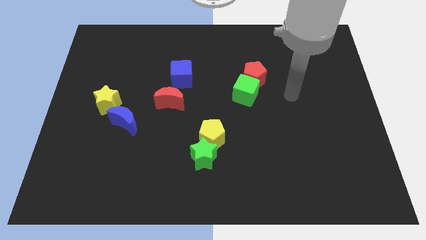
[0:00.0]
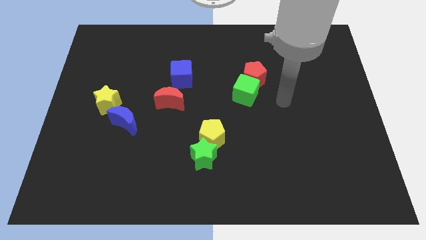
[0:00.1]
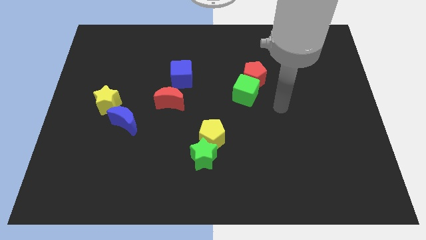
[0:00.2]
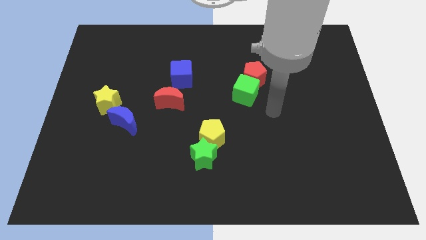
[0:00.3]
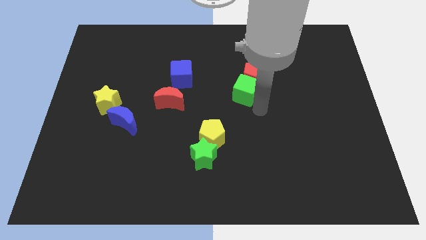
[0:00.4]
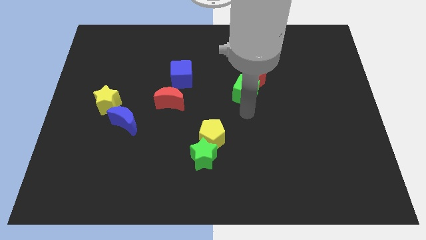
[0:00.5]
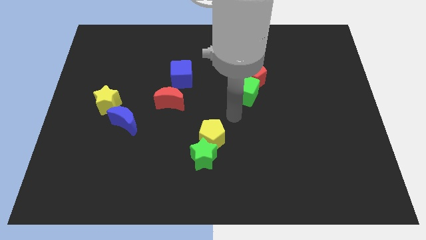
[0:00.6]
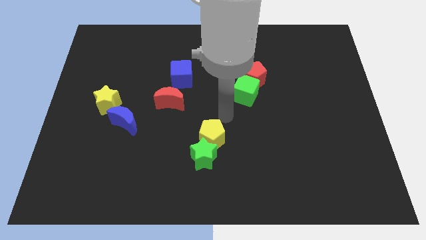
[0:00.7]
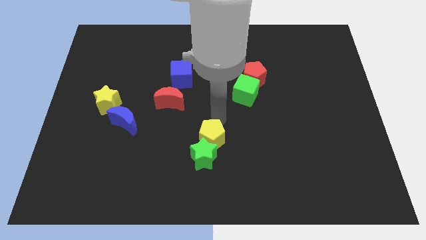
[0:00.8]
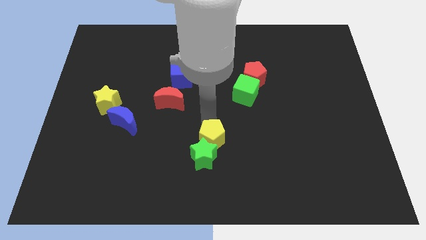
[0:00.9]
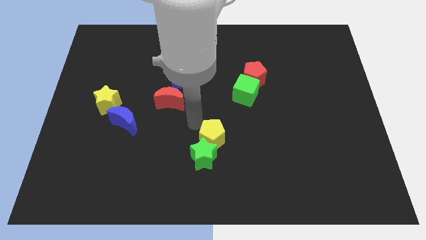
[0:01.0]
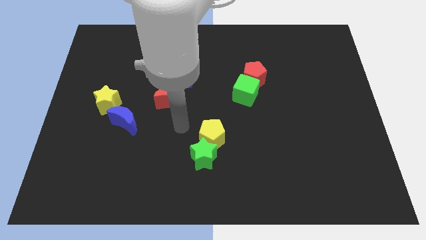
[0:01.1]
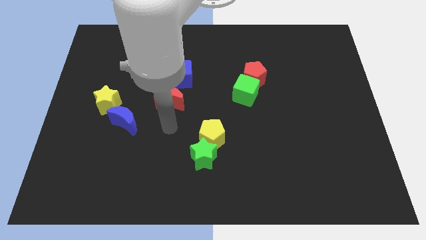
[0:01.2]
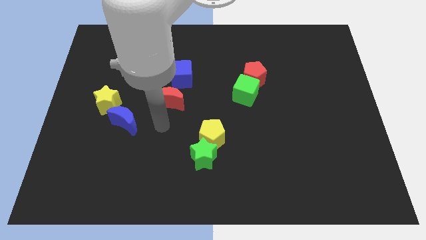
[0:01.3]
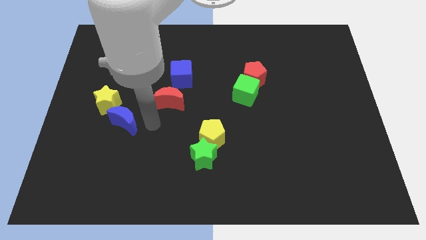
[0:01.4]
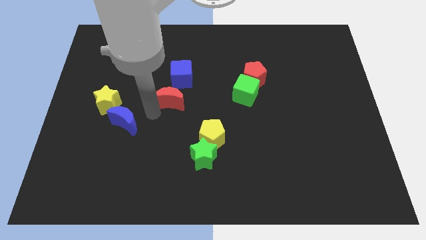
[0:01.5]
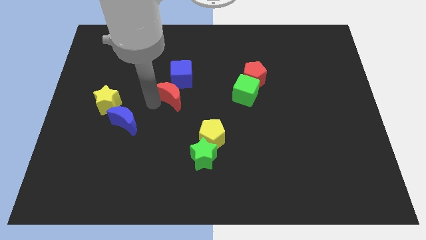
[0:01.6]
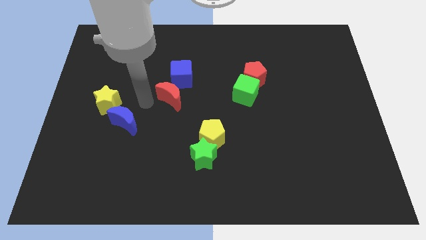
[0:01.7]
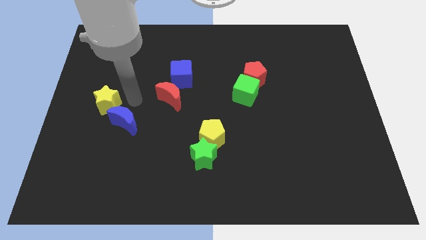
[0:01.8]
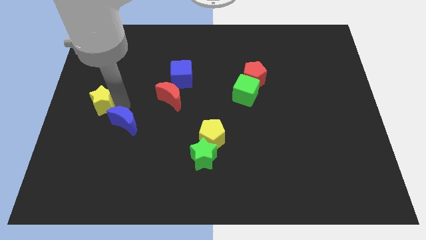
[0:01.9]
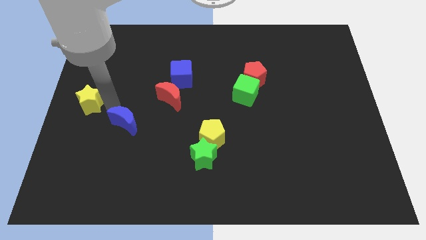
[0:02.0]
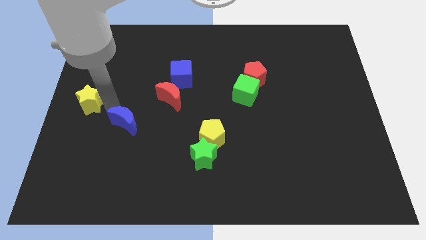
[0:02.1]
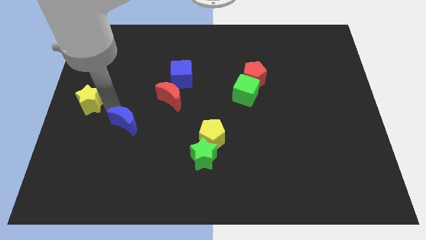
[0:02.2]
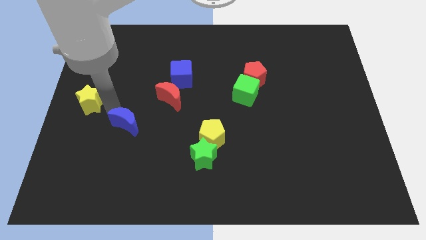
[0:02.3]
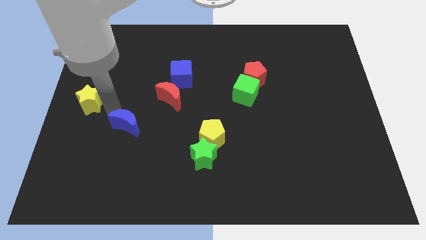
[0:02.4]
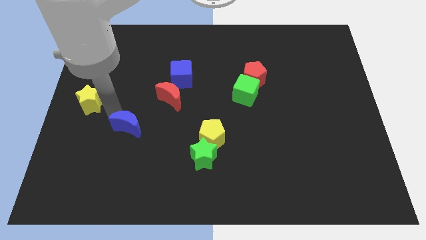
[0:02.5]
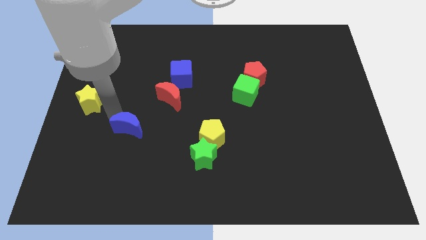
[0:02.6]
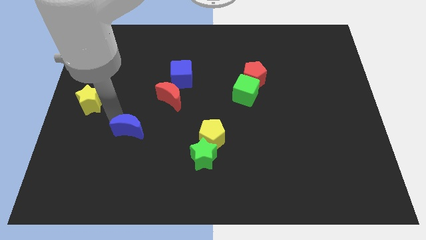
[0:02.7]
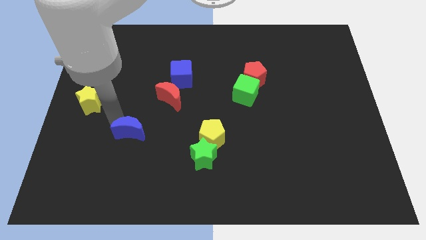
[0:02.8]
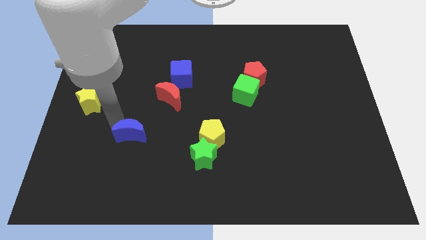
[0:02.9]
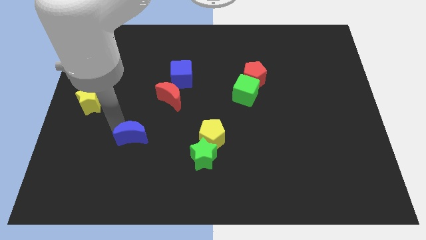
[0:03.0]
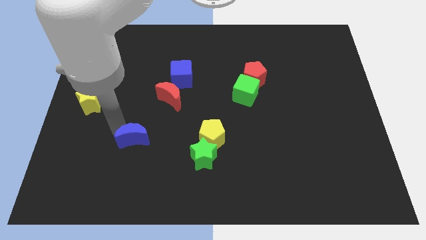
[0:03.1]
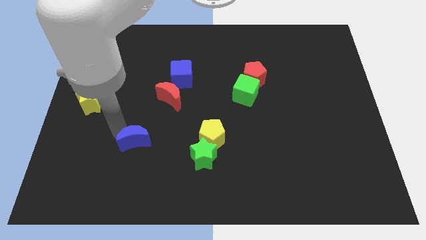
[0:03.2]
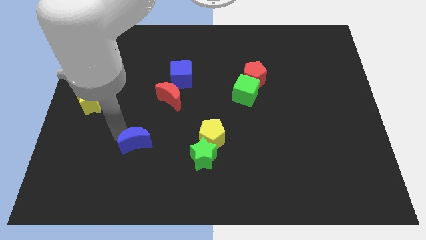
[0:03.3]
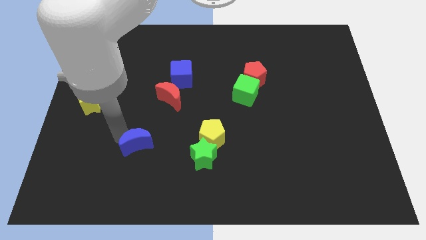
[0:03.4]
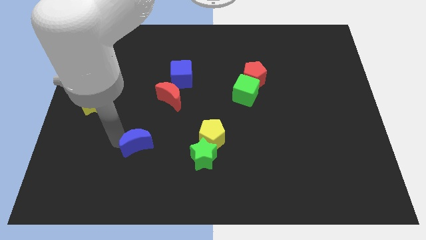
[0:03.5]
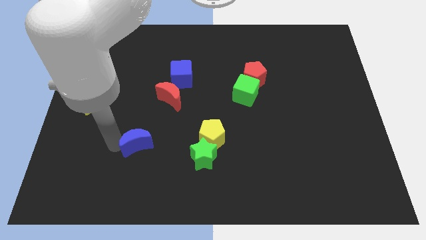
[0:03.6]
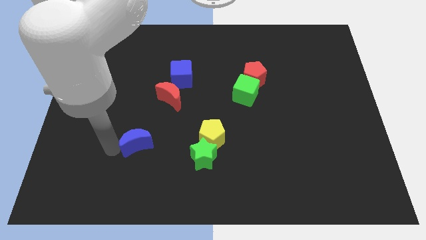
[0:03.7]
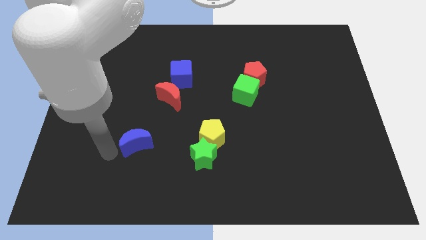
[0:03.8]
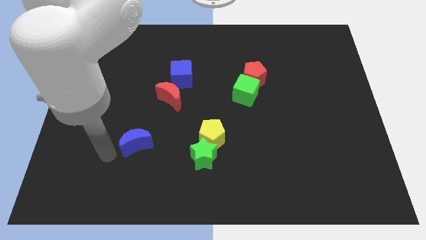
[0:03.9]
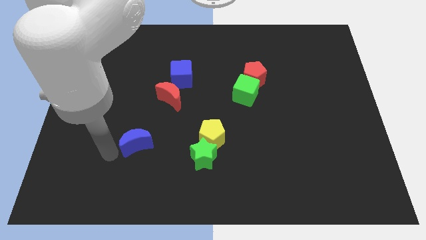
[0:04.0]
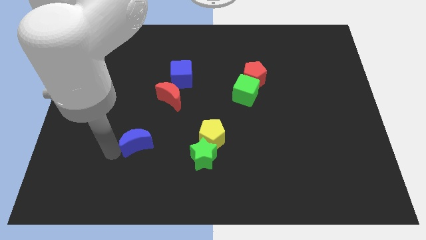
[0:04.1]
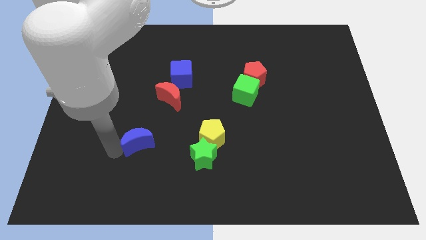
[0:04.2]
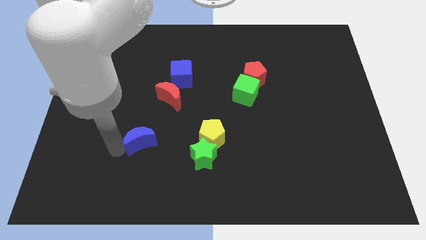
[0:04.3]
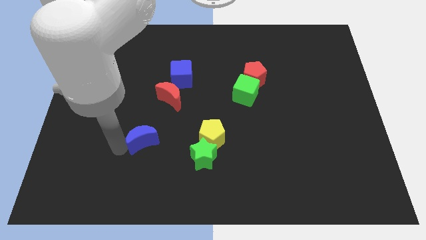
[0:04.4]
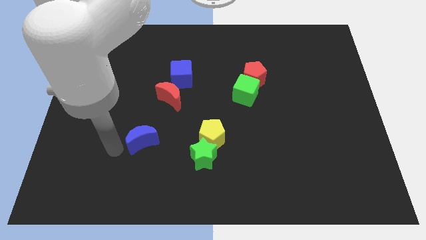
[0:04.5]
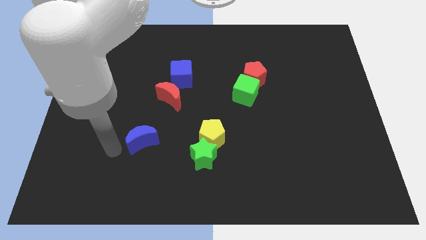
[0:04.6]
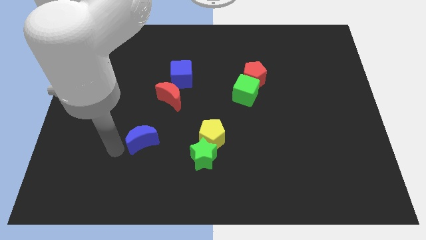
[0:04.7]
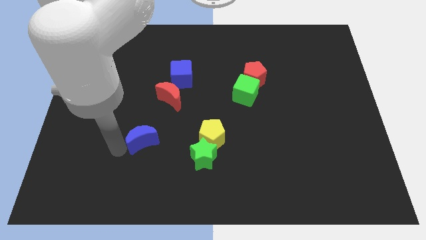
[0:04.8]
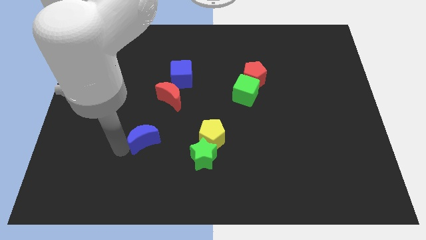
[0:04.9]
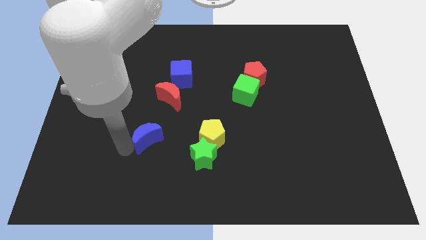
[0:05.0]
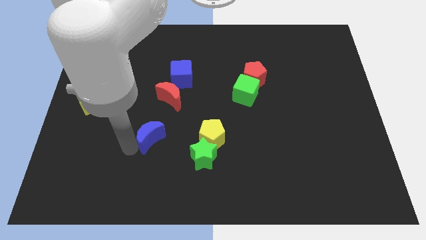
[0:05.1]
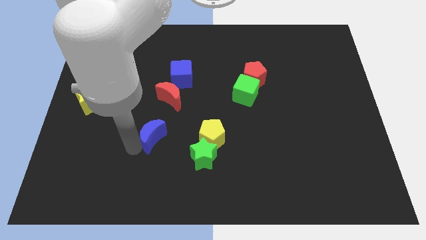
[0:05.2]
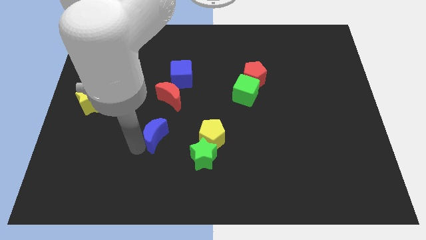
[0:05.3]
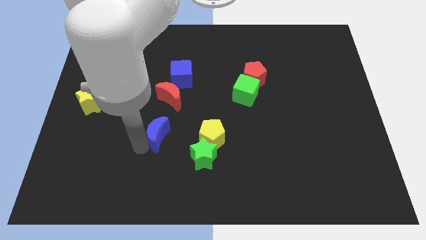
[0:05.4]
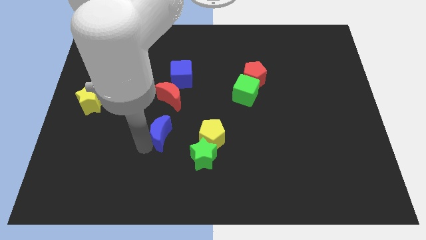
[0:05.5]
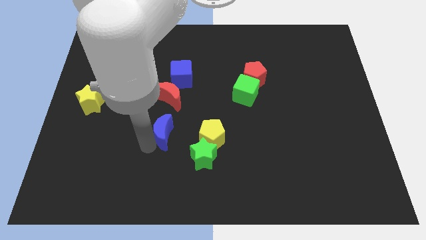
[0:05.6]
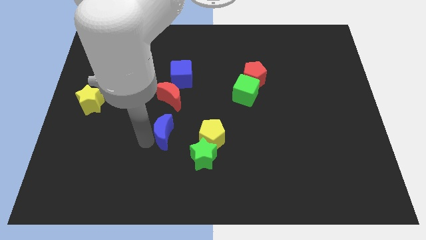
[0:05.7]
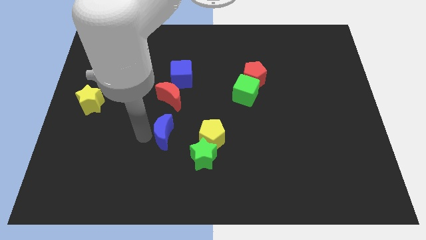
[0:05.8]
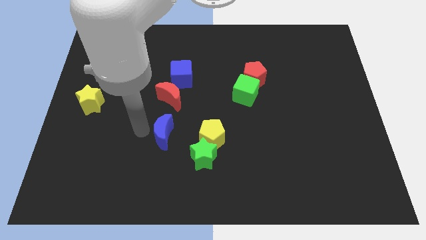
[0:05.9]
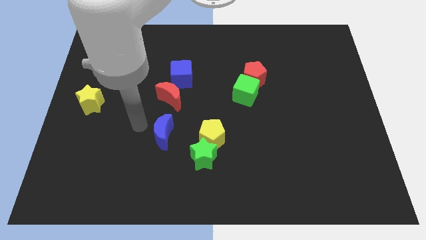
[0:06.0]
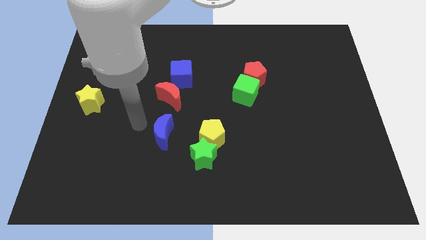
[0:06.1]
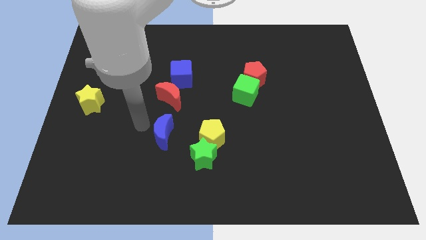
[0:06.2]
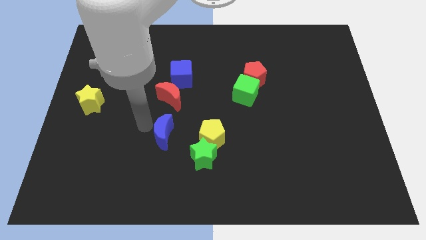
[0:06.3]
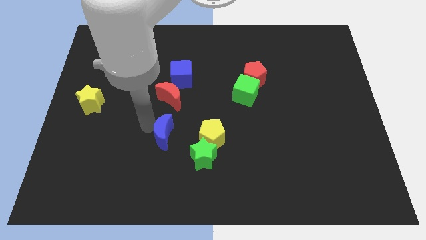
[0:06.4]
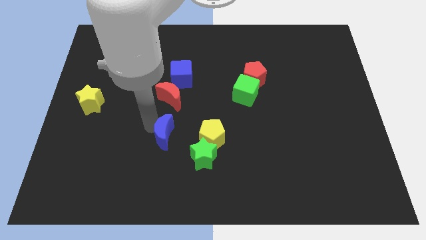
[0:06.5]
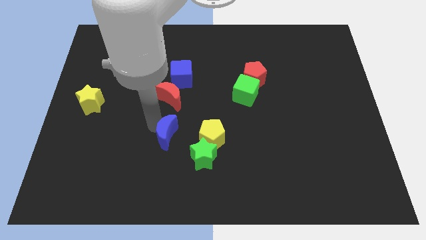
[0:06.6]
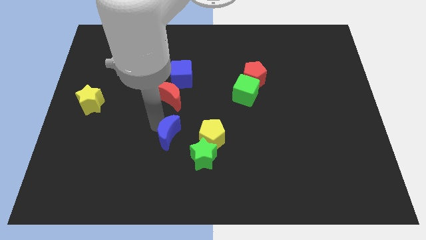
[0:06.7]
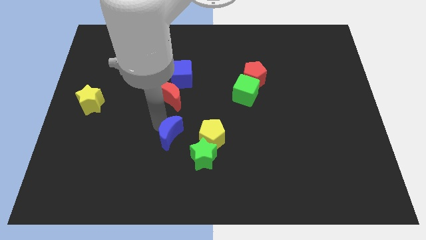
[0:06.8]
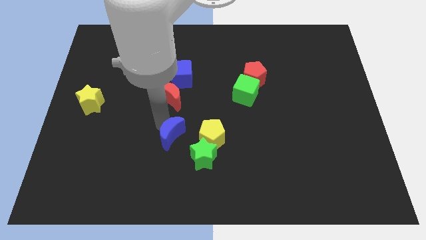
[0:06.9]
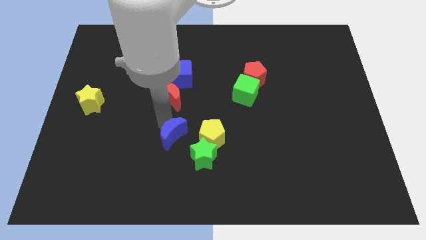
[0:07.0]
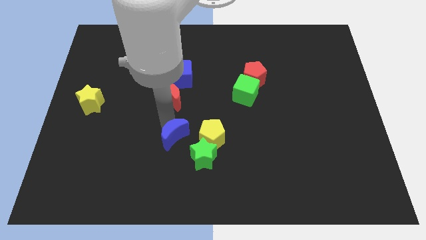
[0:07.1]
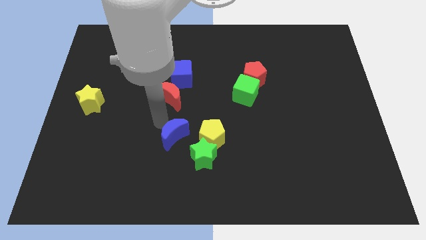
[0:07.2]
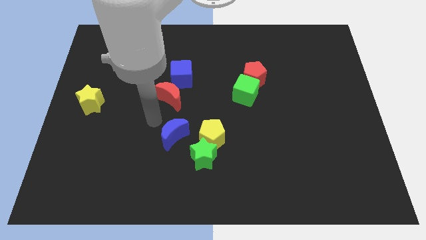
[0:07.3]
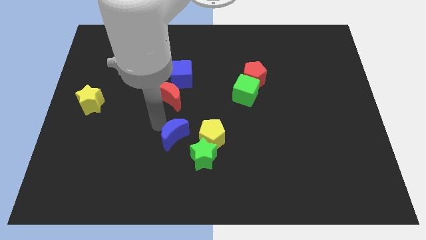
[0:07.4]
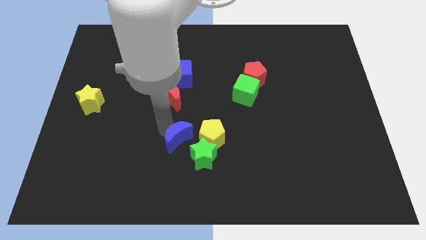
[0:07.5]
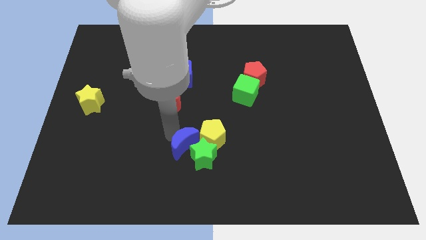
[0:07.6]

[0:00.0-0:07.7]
push the blue moon close to the green star
